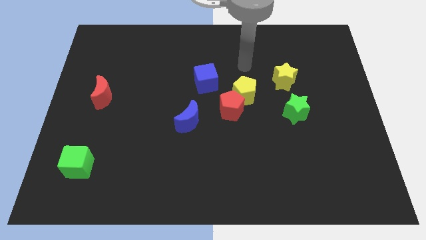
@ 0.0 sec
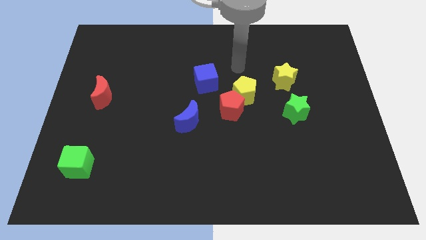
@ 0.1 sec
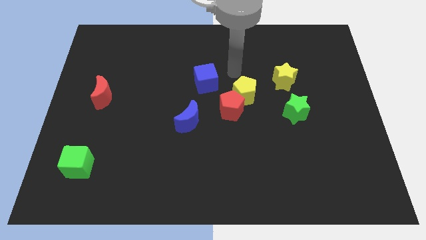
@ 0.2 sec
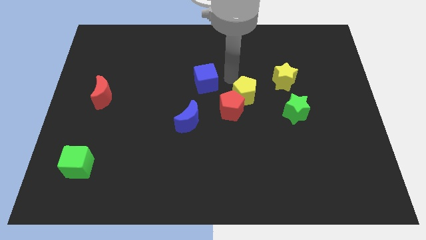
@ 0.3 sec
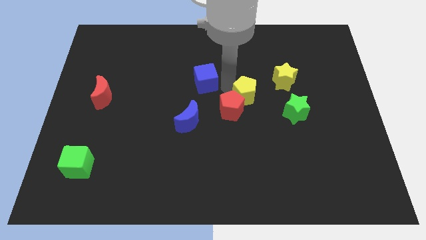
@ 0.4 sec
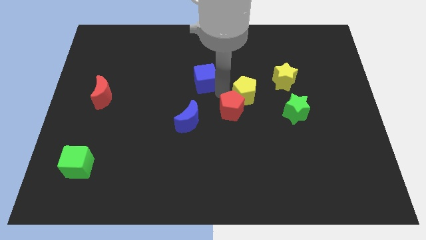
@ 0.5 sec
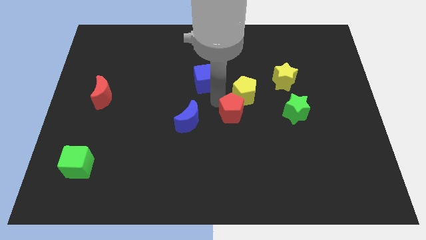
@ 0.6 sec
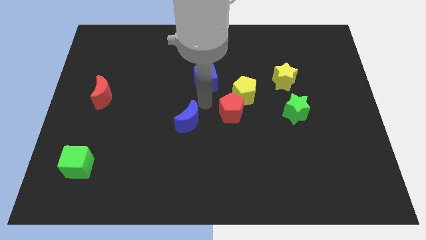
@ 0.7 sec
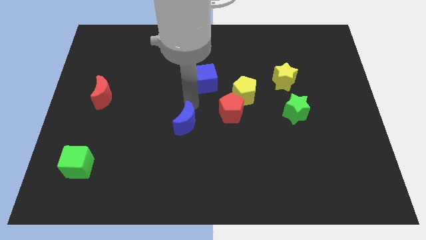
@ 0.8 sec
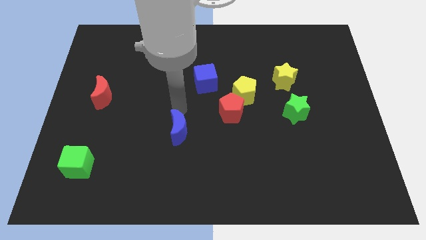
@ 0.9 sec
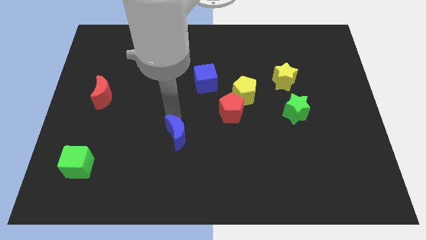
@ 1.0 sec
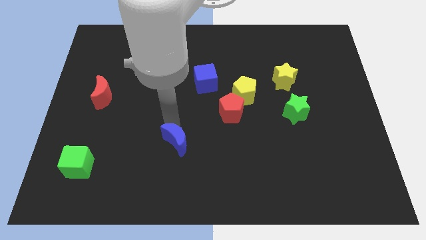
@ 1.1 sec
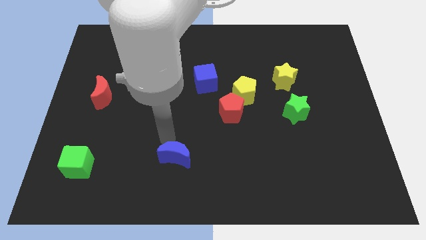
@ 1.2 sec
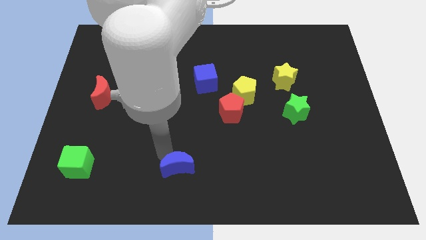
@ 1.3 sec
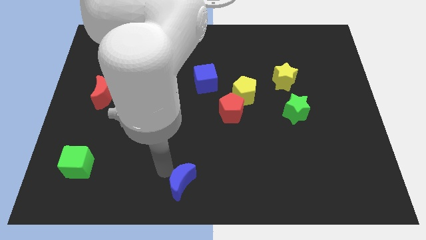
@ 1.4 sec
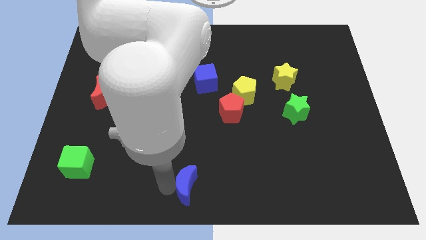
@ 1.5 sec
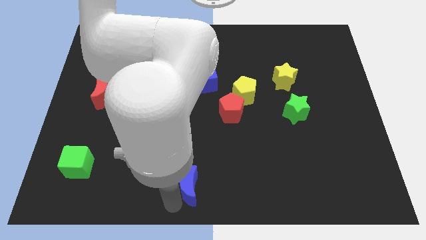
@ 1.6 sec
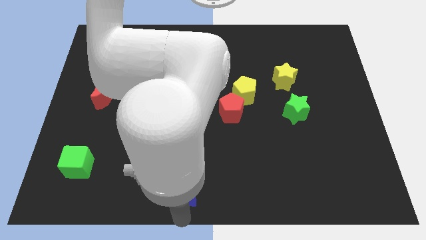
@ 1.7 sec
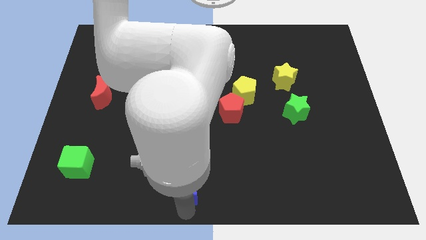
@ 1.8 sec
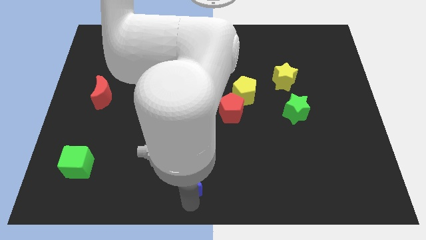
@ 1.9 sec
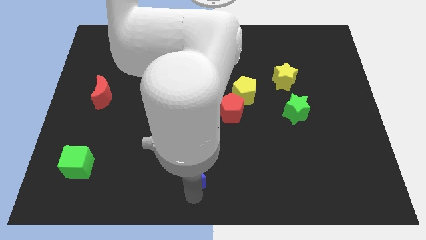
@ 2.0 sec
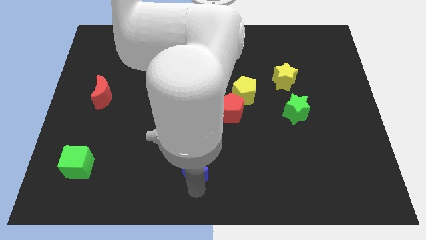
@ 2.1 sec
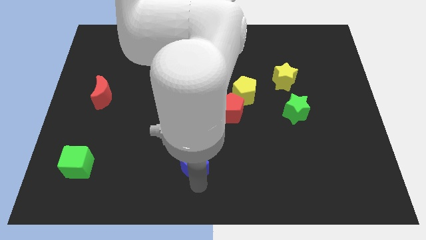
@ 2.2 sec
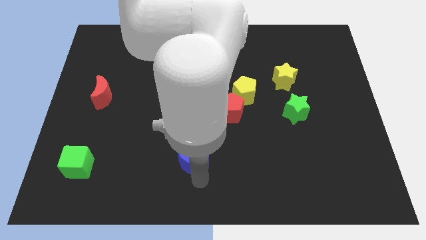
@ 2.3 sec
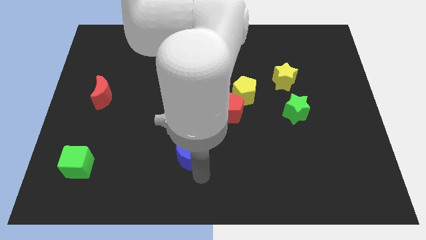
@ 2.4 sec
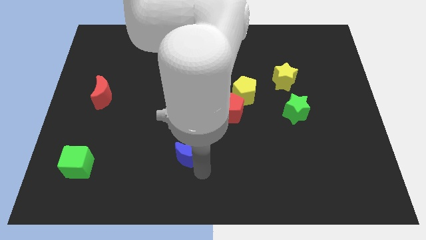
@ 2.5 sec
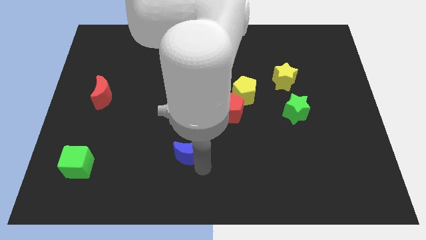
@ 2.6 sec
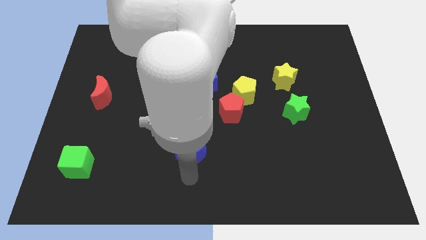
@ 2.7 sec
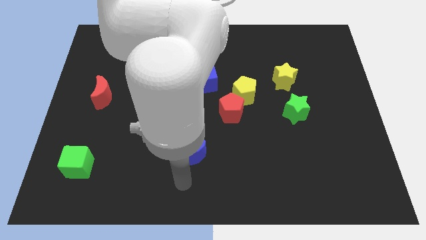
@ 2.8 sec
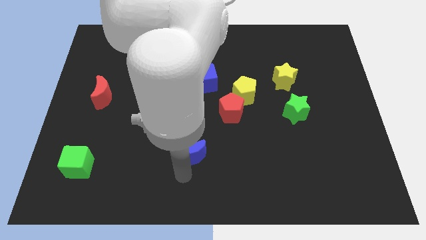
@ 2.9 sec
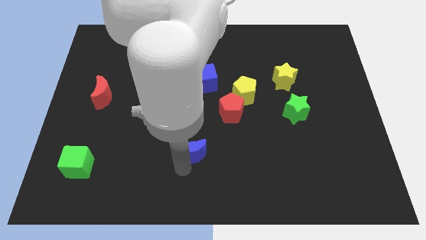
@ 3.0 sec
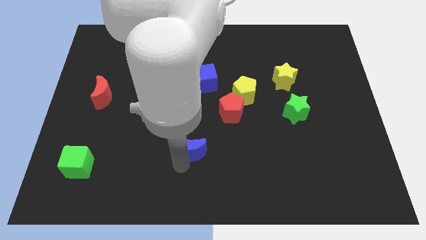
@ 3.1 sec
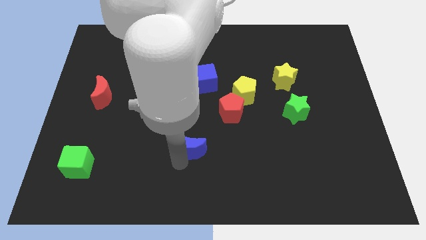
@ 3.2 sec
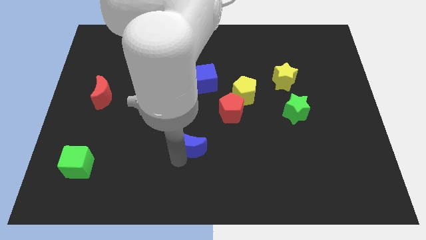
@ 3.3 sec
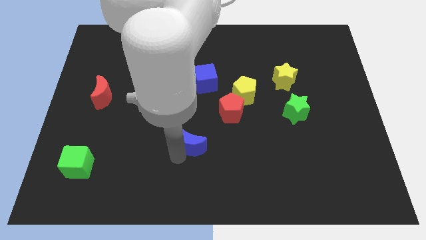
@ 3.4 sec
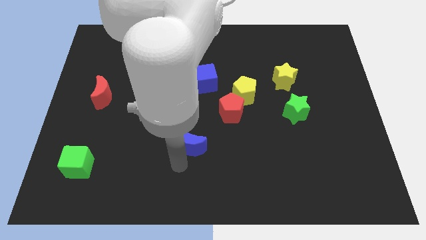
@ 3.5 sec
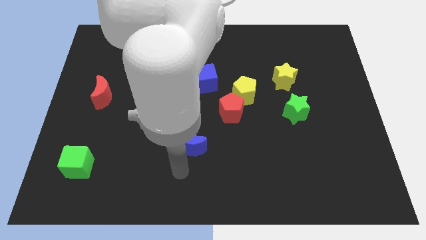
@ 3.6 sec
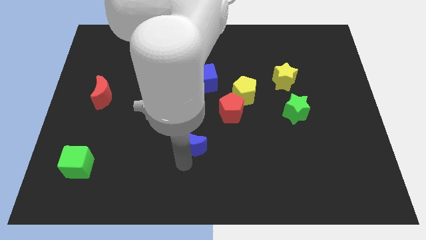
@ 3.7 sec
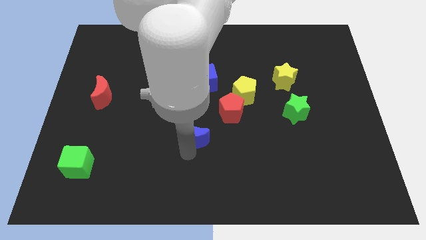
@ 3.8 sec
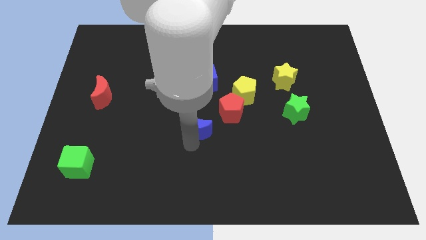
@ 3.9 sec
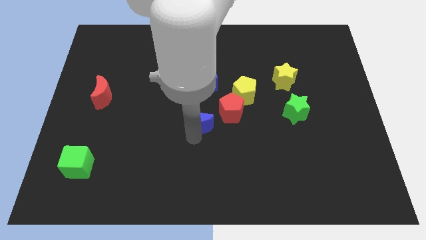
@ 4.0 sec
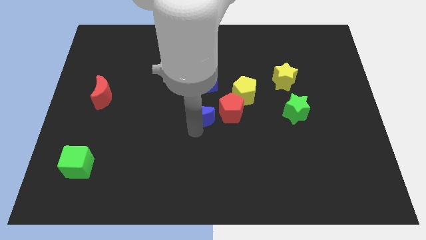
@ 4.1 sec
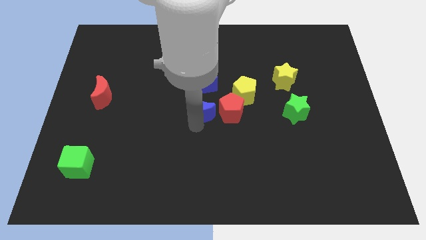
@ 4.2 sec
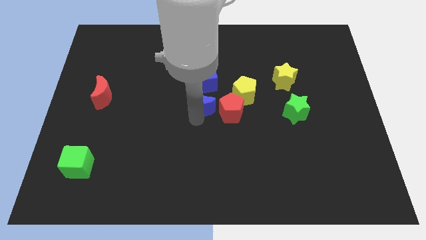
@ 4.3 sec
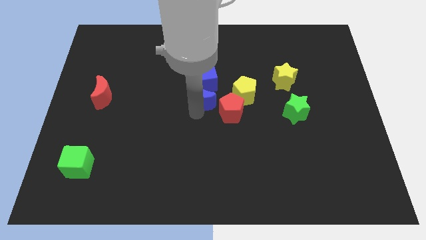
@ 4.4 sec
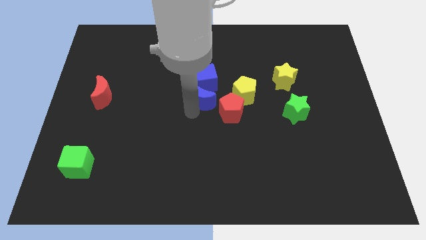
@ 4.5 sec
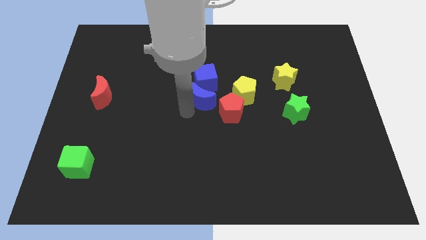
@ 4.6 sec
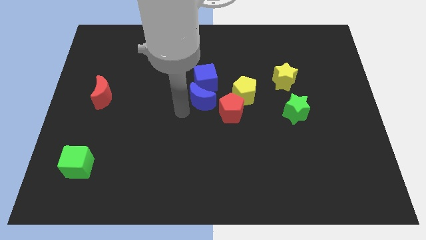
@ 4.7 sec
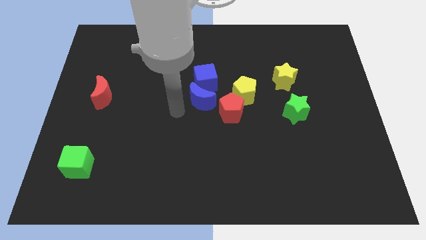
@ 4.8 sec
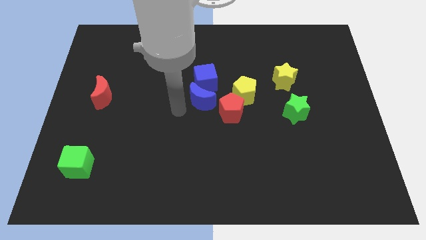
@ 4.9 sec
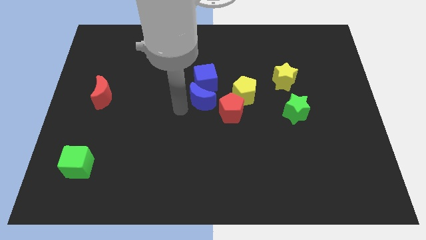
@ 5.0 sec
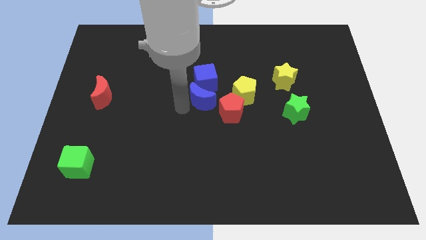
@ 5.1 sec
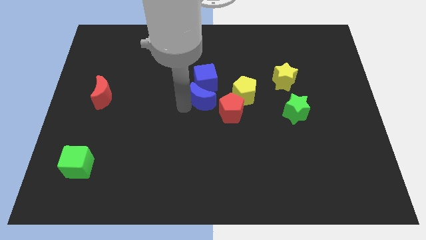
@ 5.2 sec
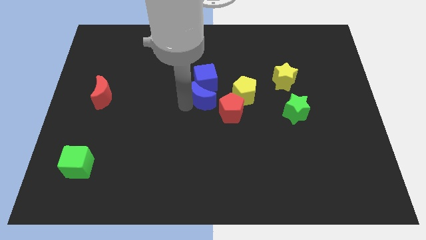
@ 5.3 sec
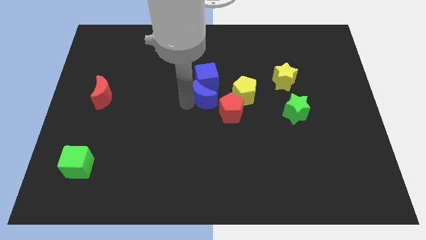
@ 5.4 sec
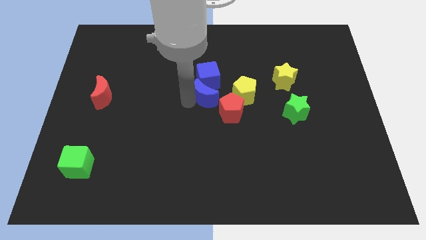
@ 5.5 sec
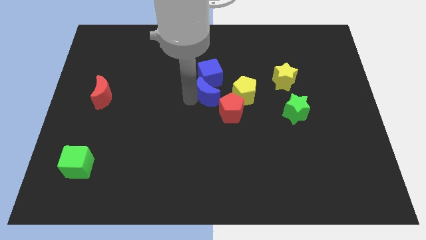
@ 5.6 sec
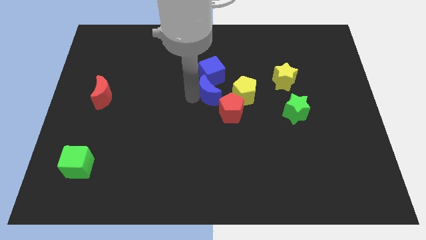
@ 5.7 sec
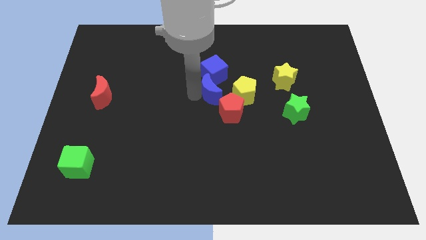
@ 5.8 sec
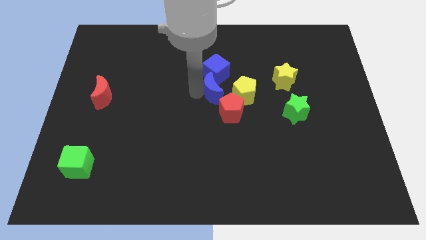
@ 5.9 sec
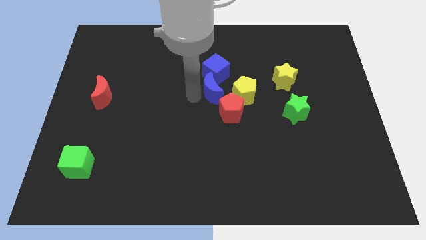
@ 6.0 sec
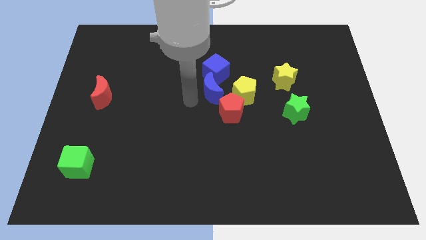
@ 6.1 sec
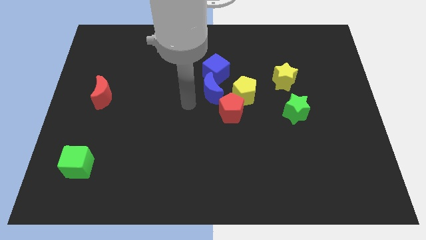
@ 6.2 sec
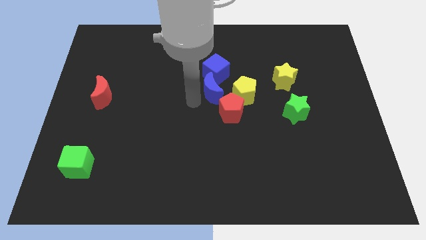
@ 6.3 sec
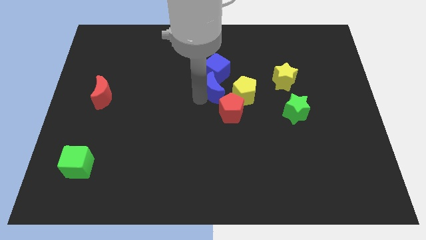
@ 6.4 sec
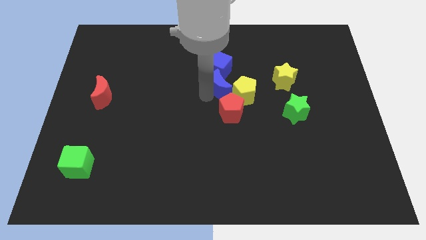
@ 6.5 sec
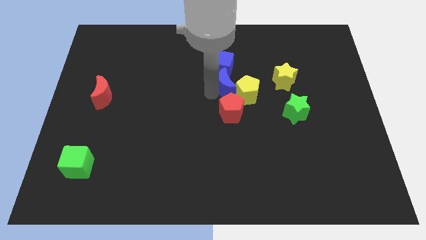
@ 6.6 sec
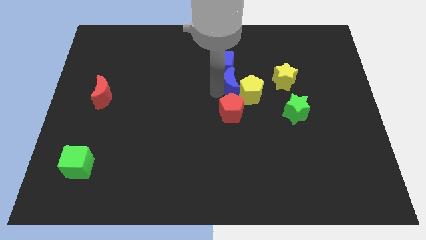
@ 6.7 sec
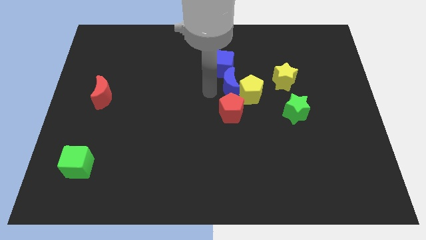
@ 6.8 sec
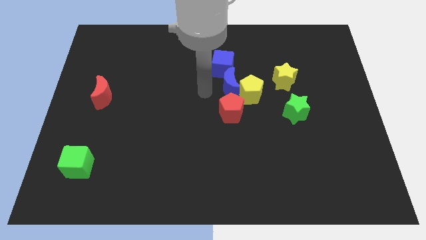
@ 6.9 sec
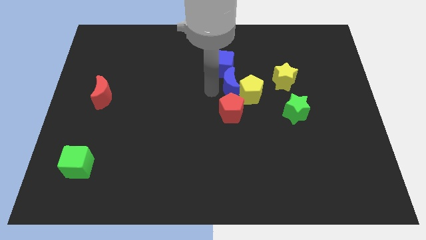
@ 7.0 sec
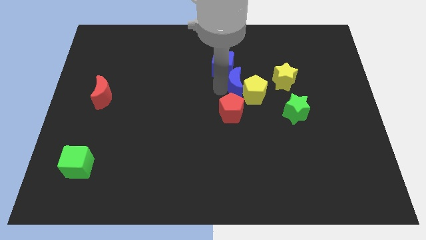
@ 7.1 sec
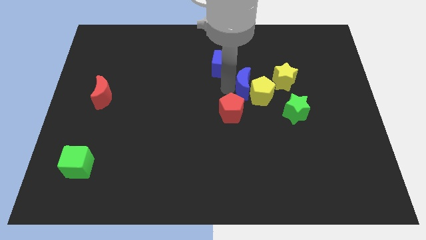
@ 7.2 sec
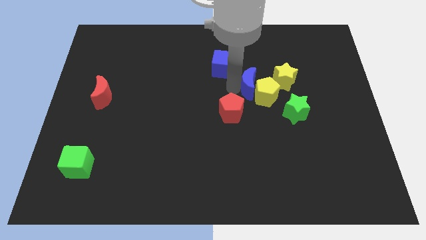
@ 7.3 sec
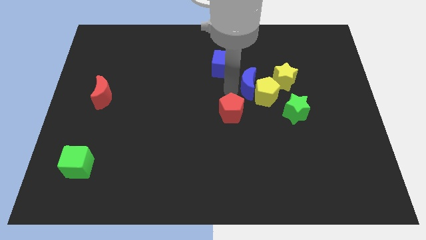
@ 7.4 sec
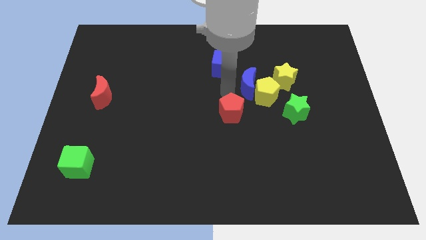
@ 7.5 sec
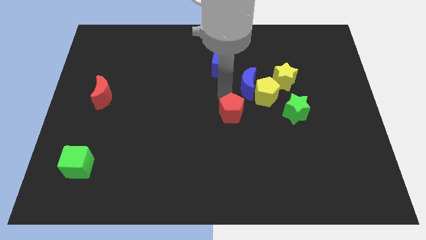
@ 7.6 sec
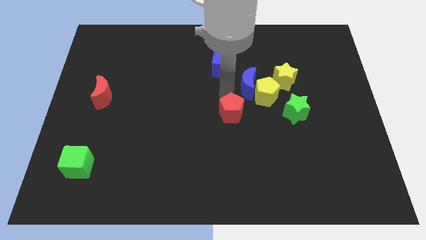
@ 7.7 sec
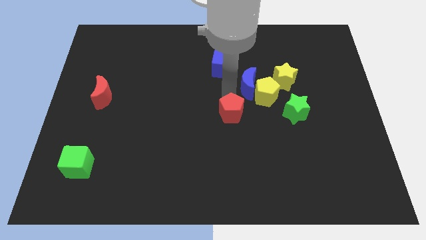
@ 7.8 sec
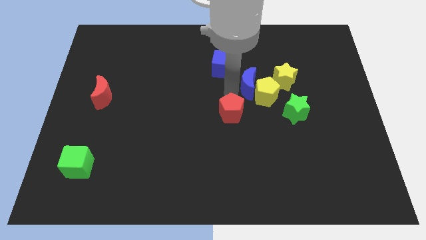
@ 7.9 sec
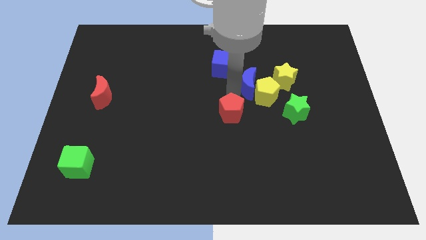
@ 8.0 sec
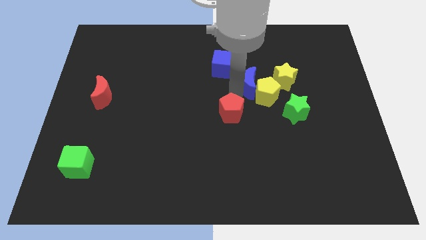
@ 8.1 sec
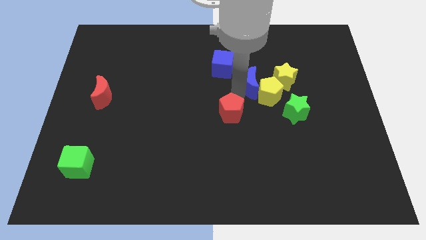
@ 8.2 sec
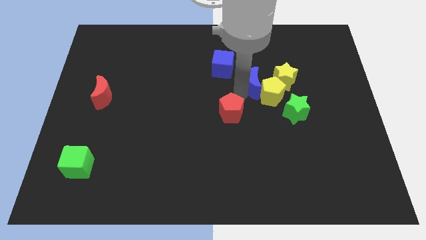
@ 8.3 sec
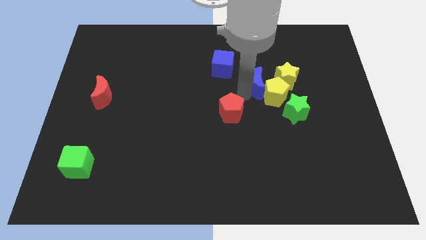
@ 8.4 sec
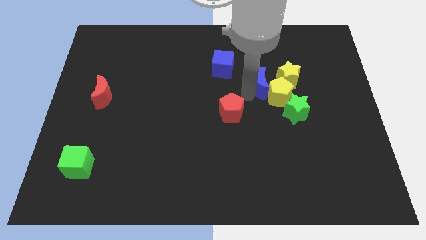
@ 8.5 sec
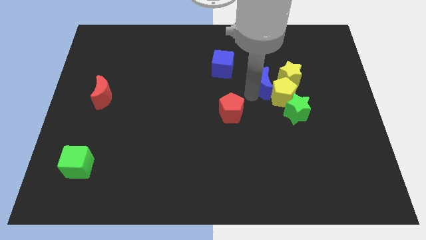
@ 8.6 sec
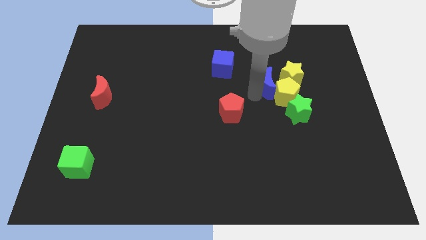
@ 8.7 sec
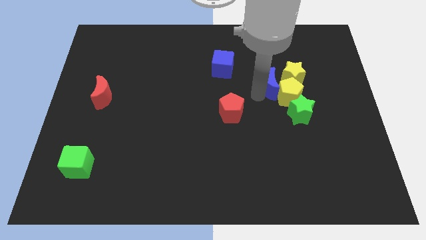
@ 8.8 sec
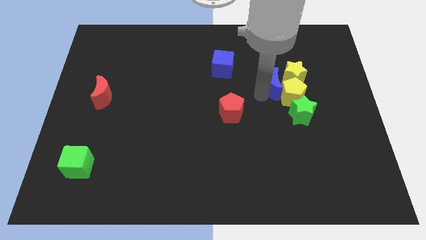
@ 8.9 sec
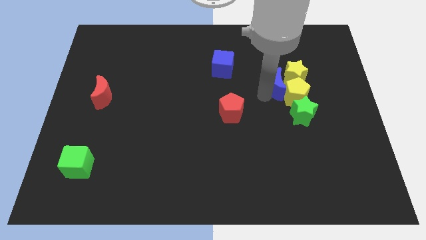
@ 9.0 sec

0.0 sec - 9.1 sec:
slide the blue moon towards the yellow star
